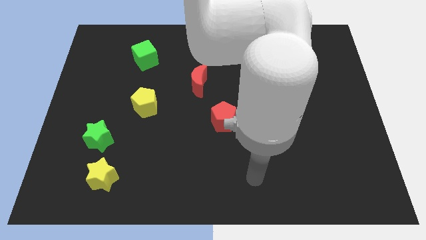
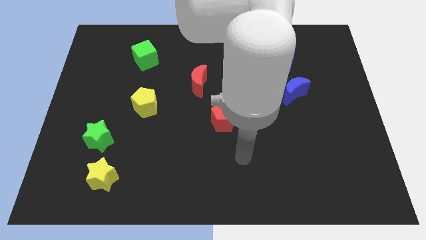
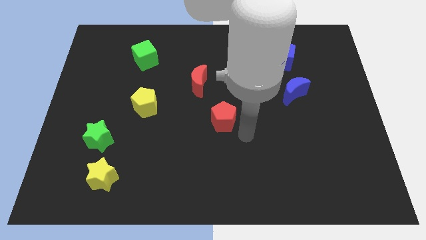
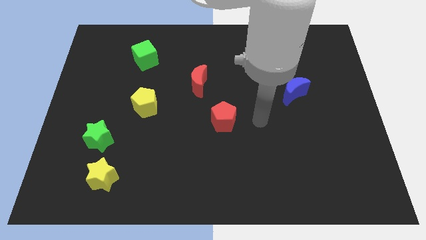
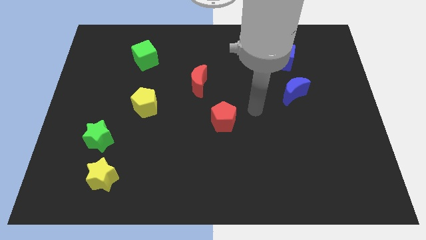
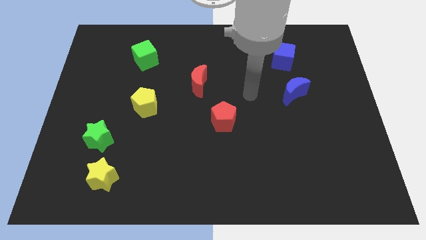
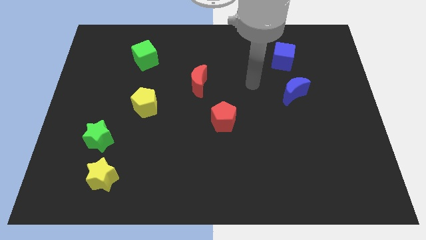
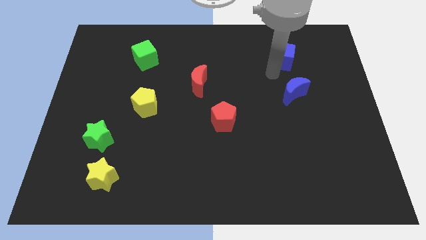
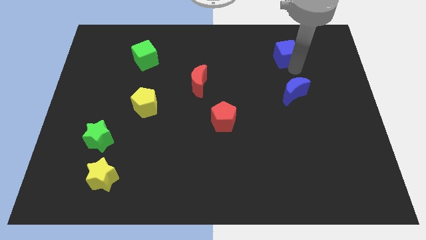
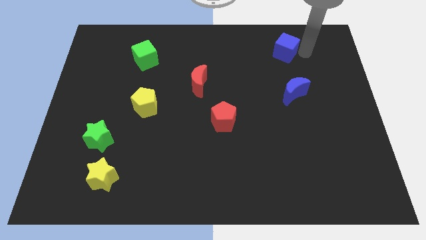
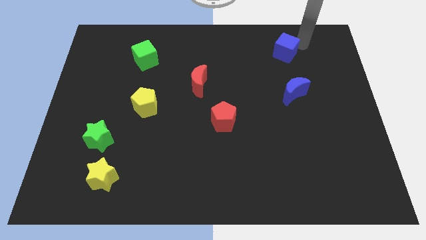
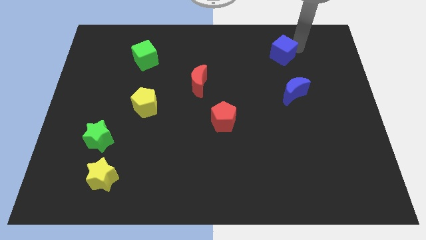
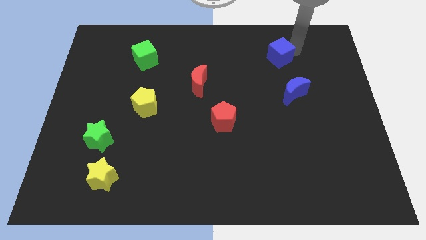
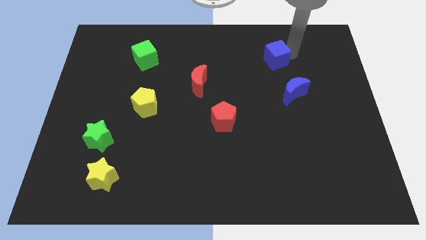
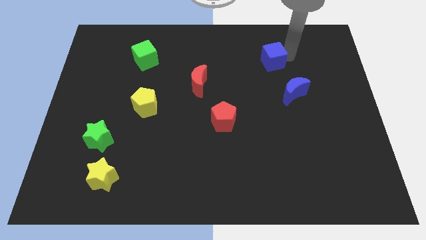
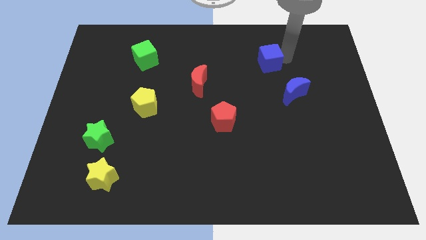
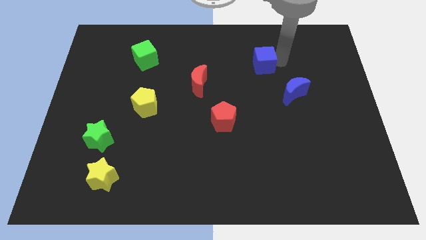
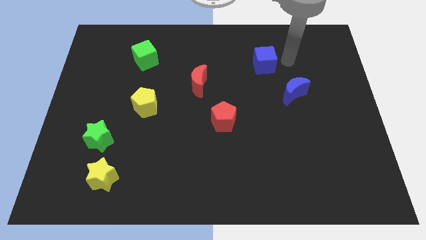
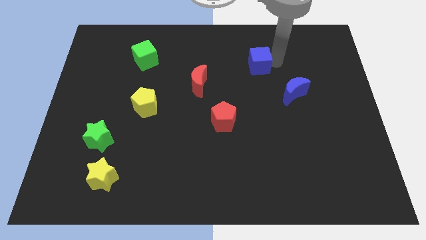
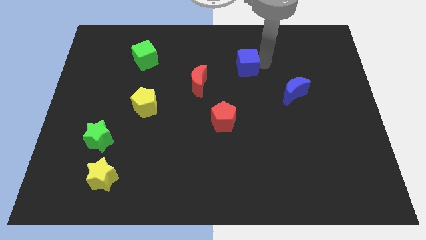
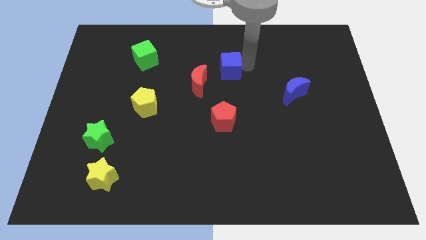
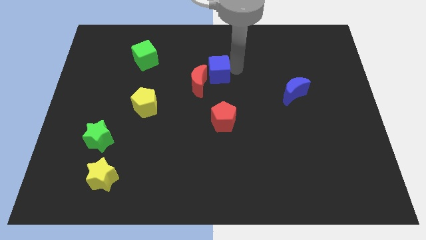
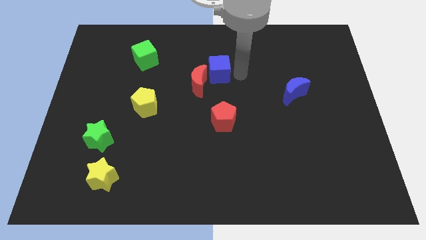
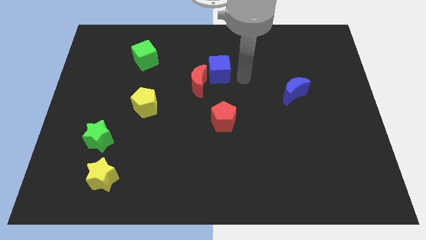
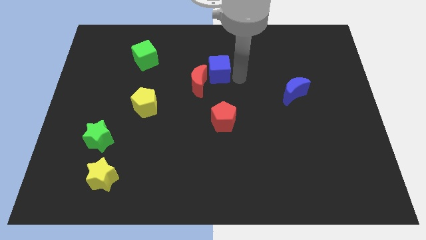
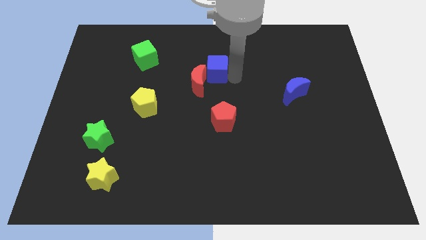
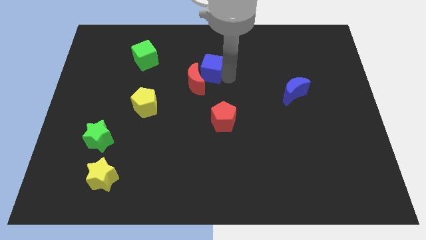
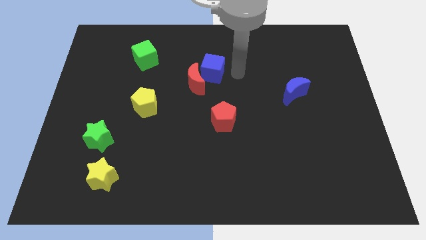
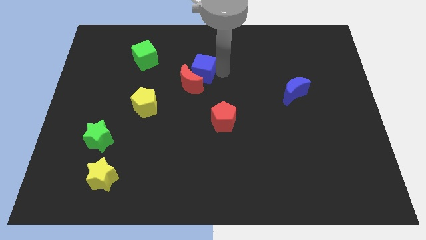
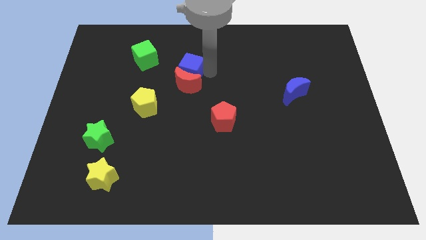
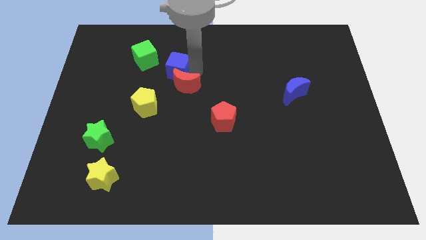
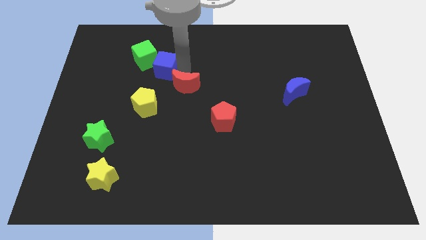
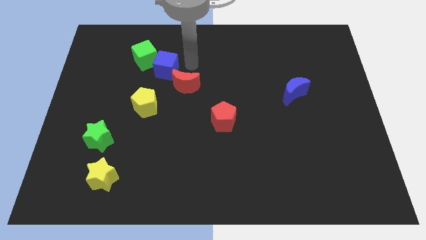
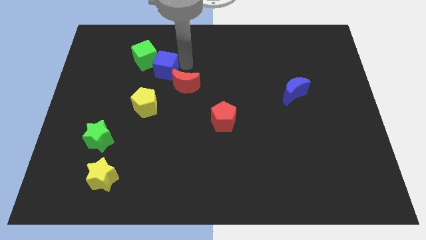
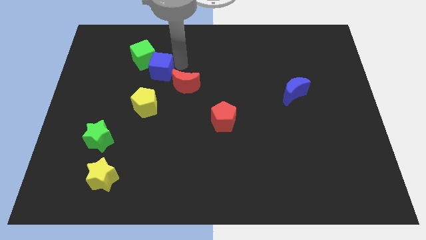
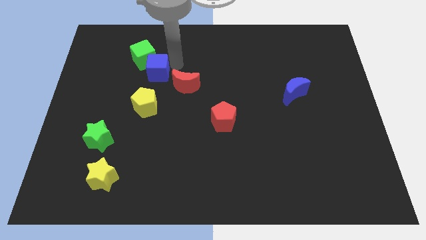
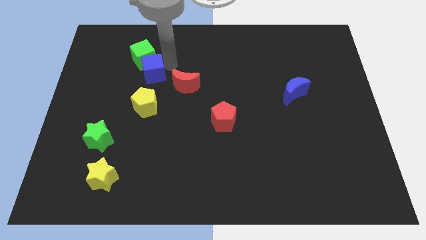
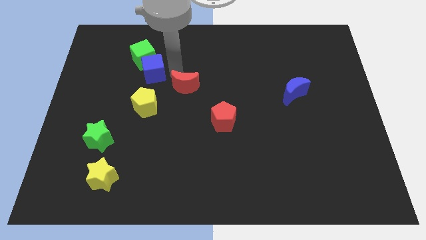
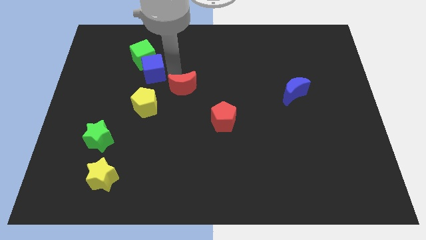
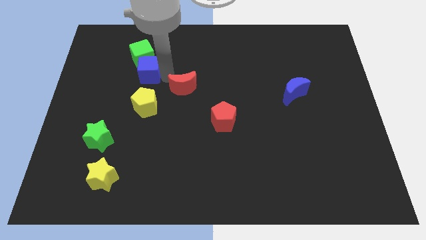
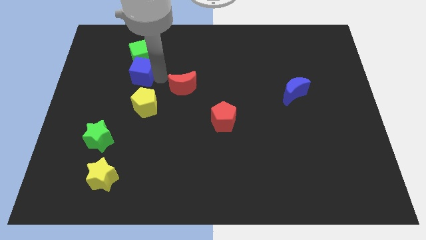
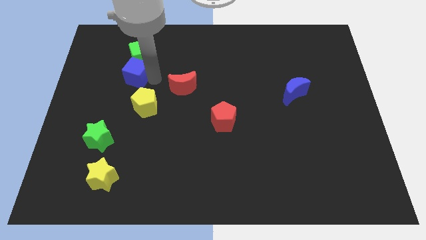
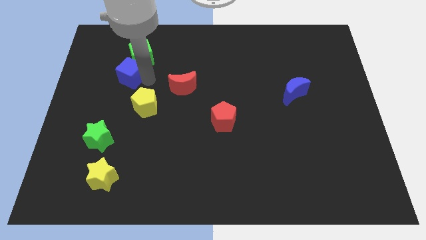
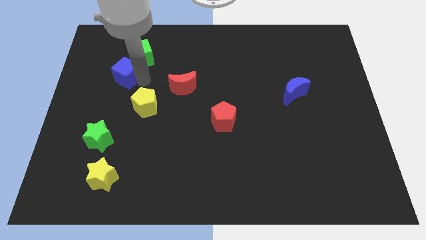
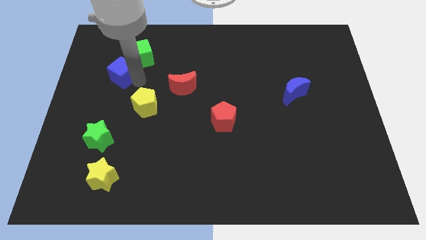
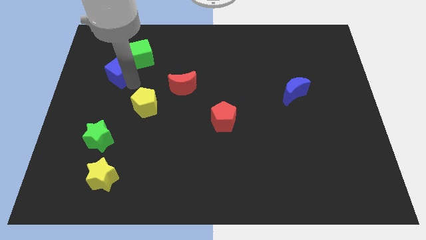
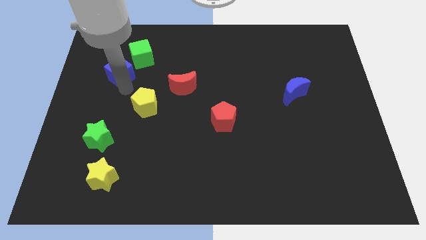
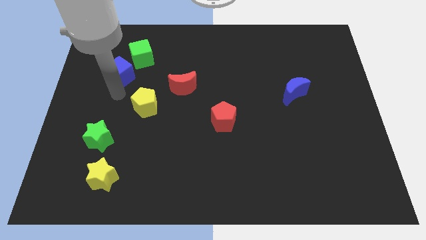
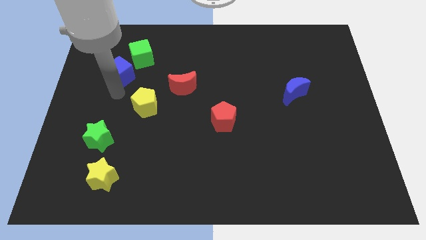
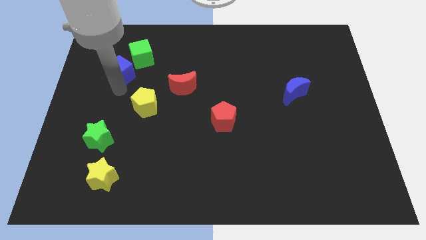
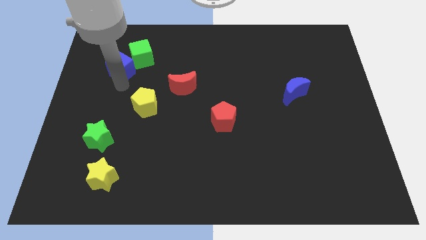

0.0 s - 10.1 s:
slide the blue cube to the left side of the green cube

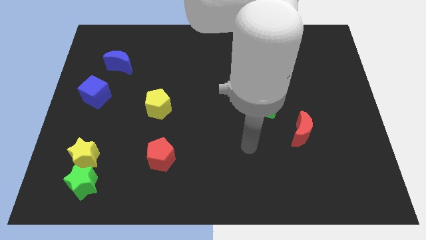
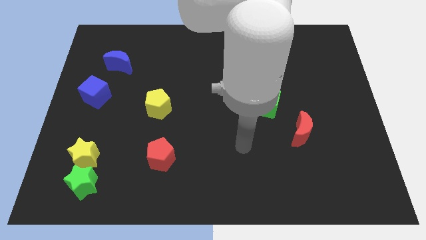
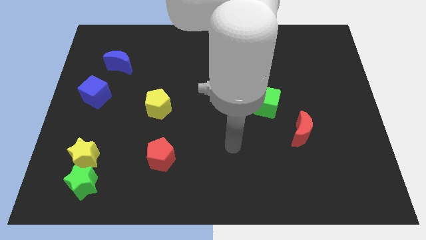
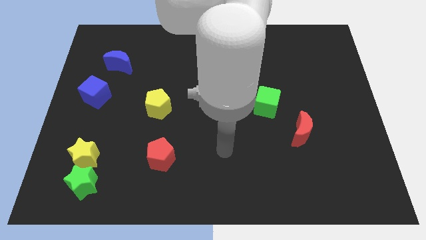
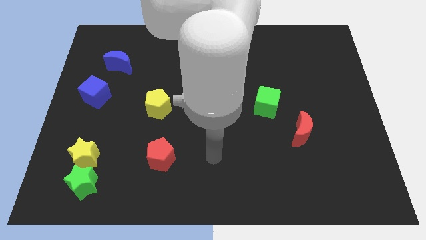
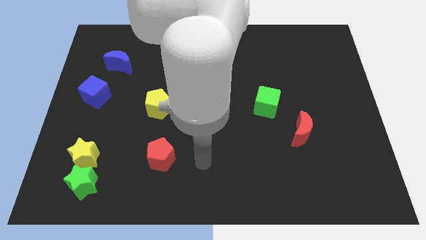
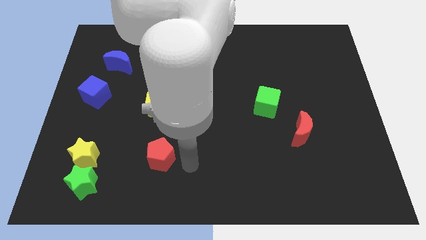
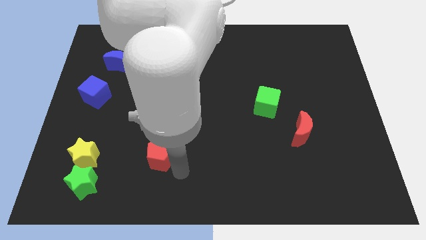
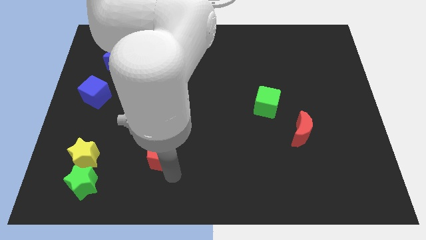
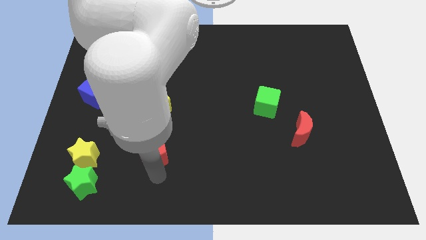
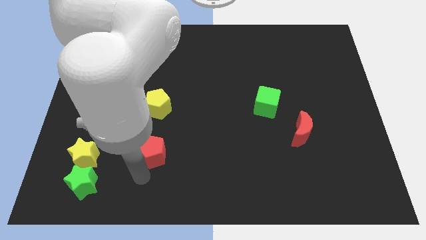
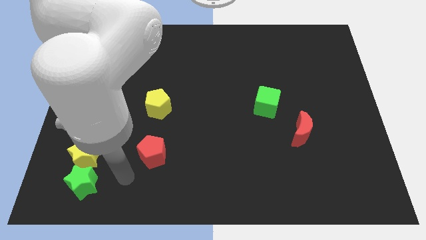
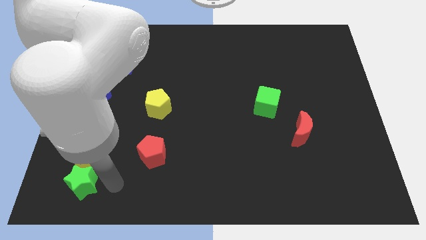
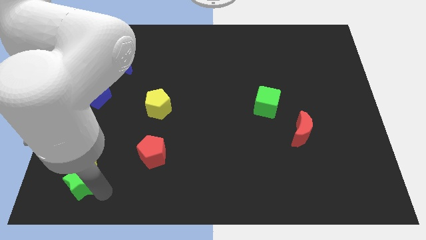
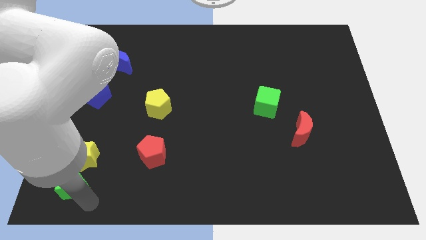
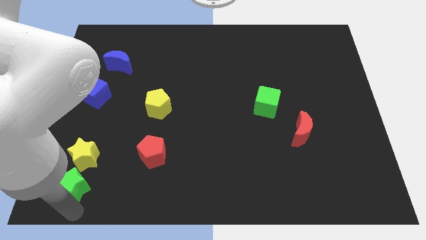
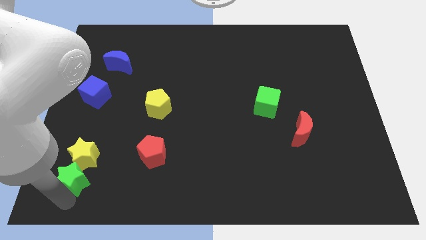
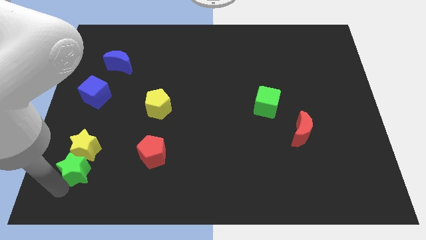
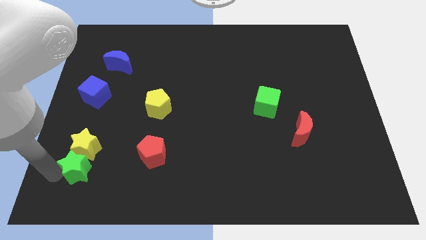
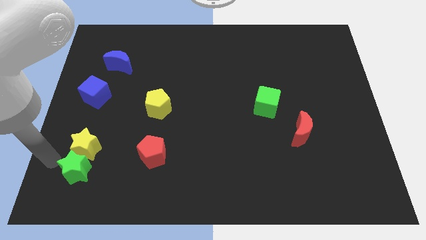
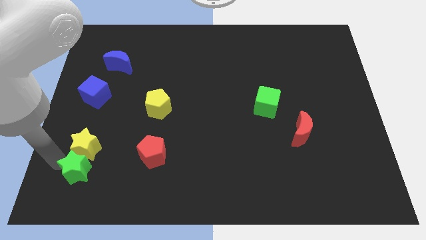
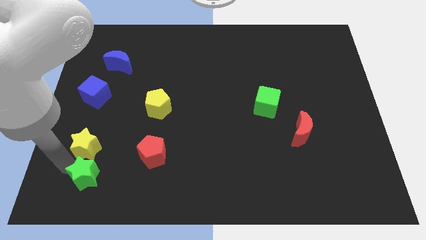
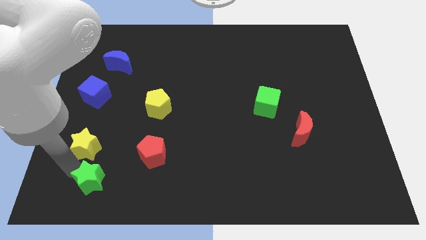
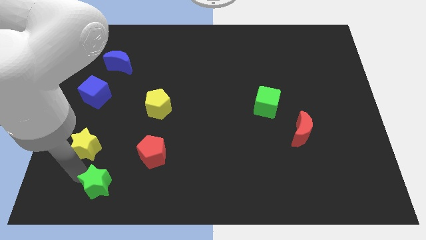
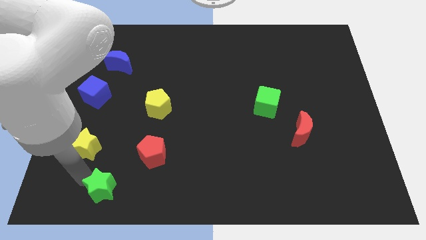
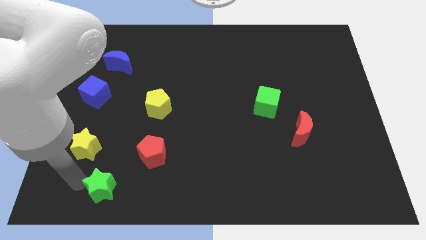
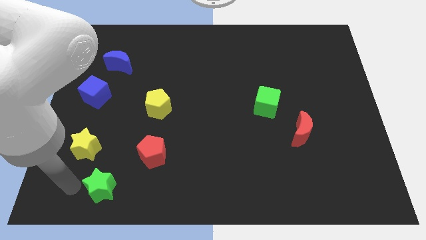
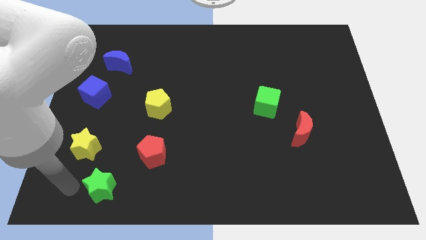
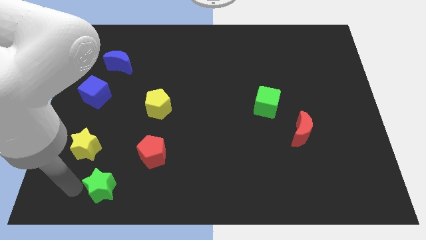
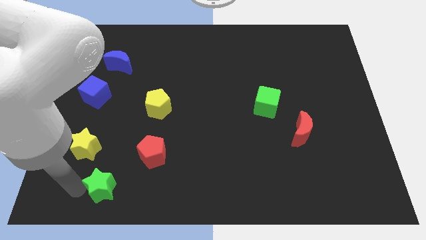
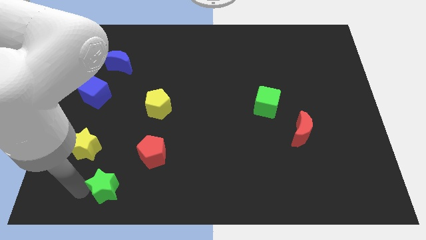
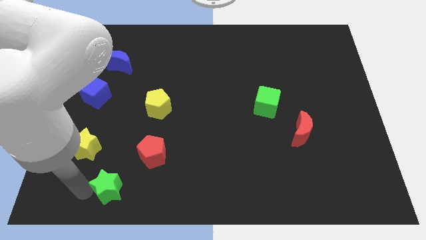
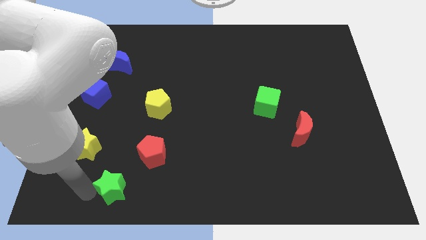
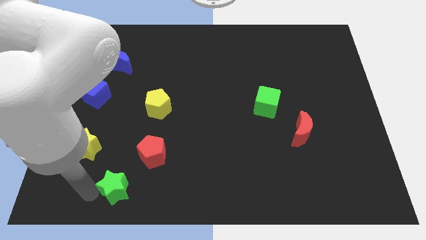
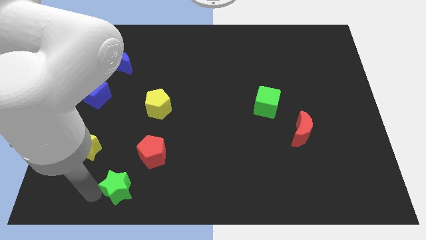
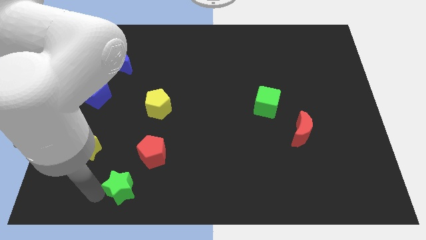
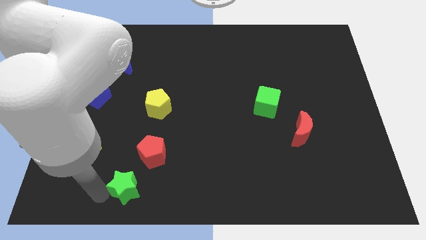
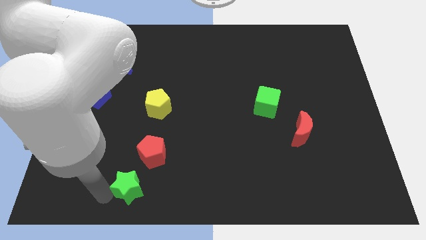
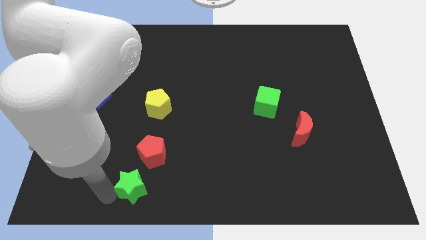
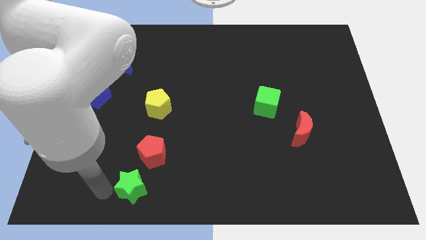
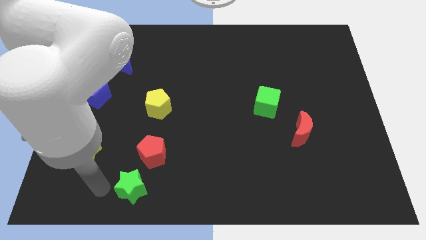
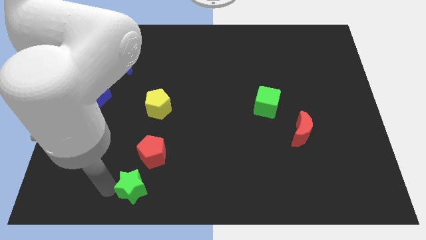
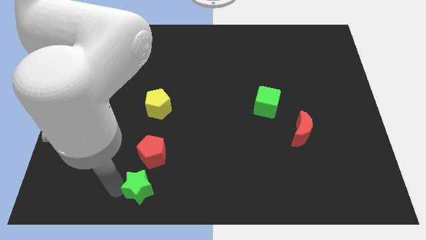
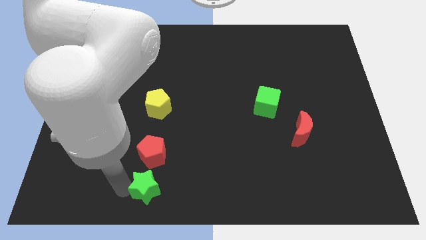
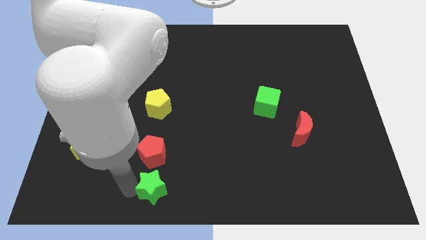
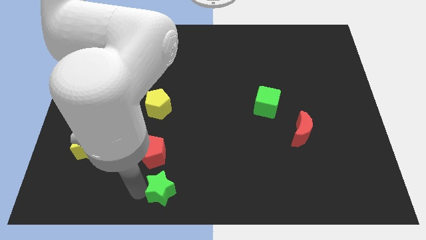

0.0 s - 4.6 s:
put the green star to the bottom right of the red pentagon
